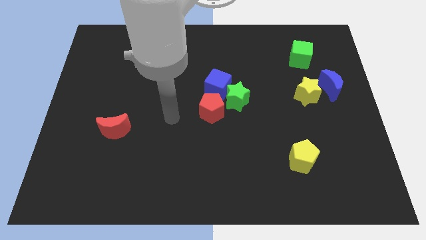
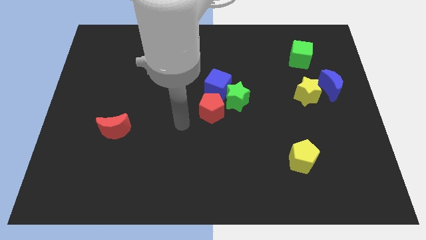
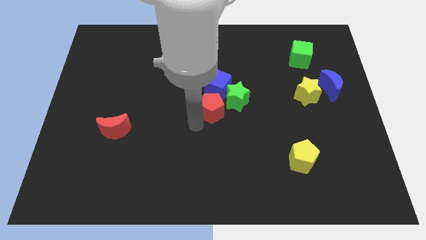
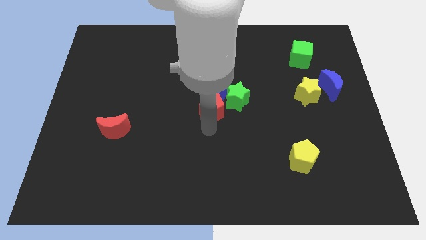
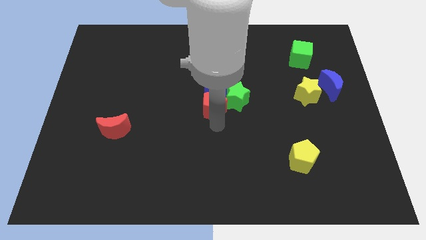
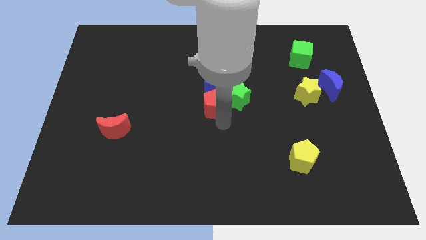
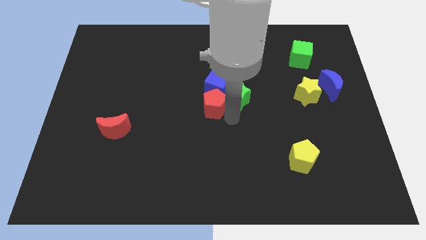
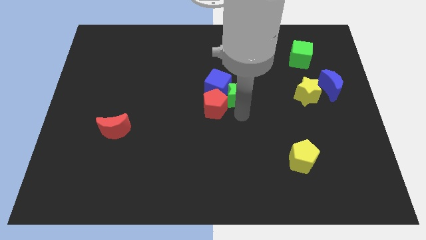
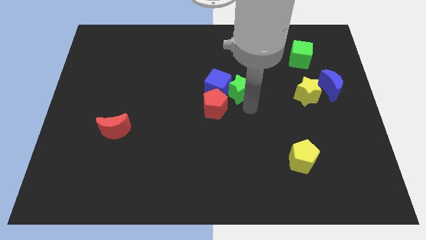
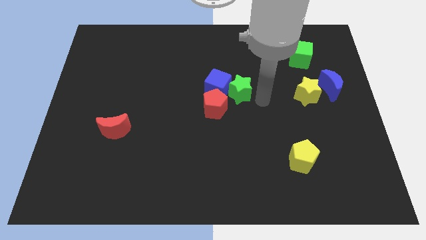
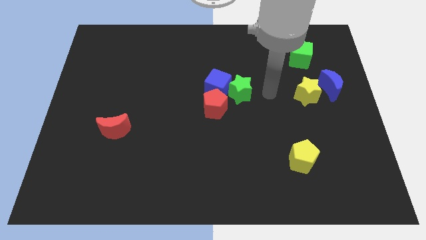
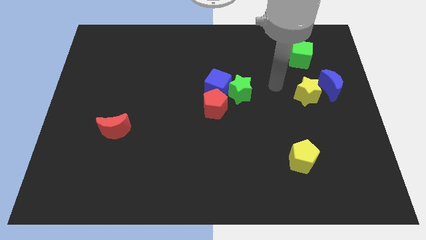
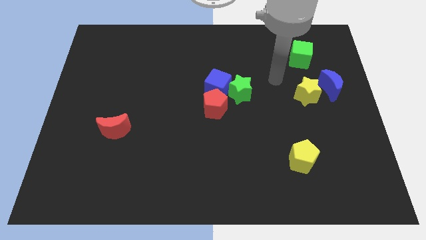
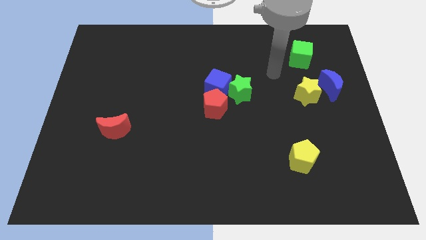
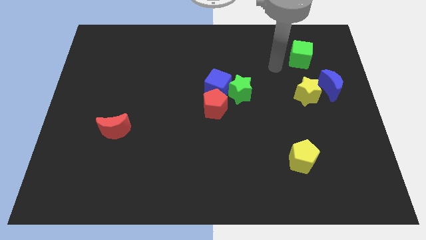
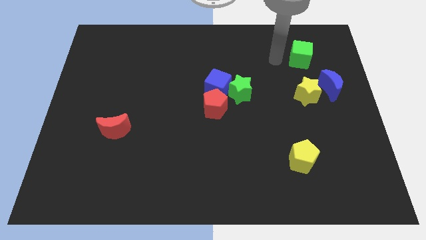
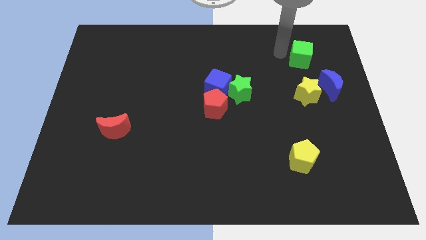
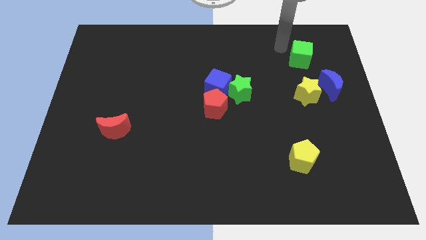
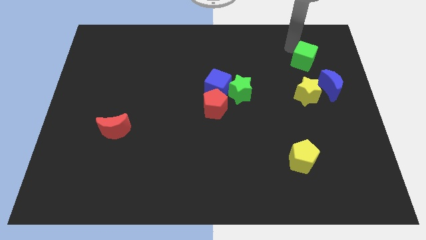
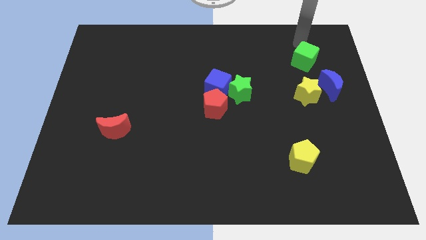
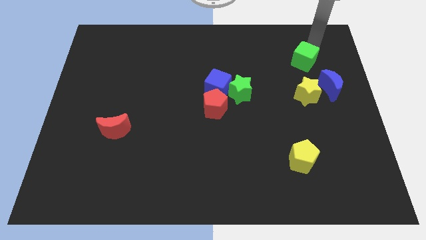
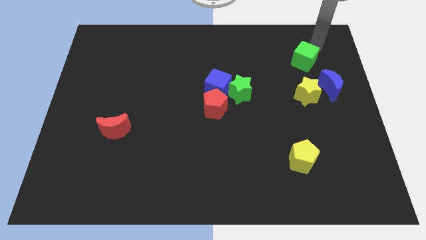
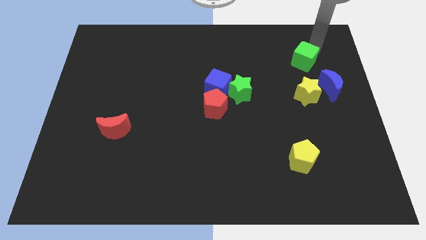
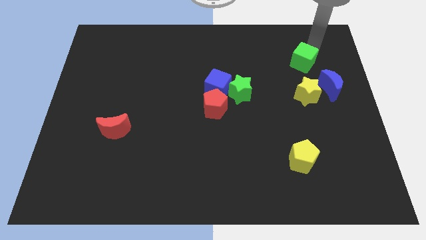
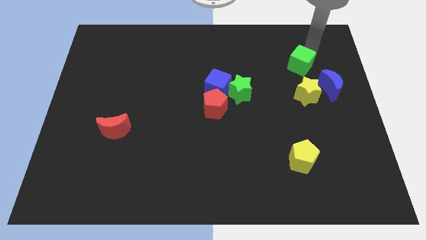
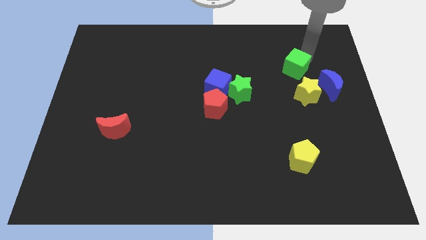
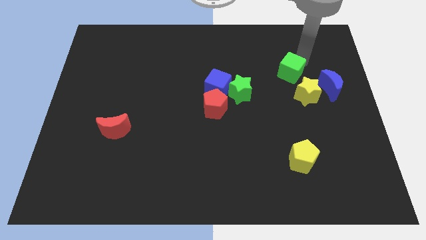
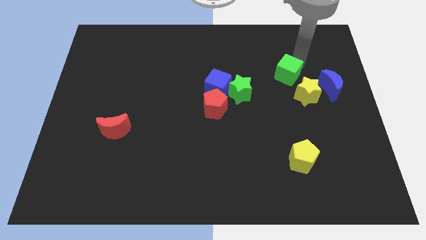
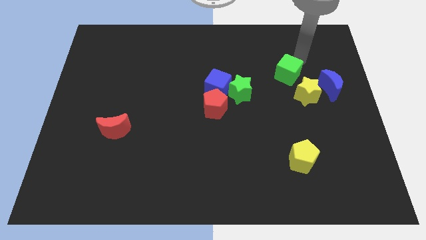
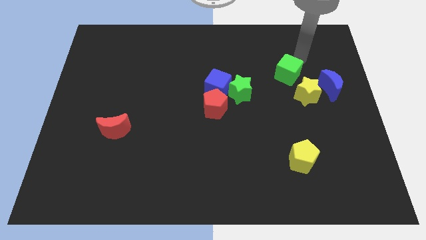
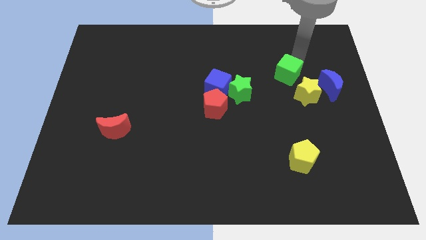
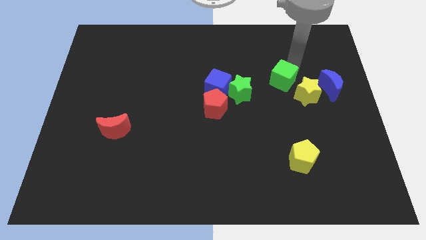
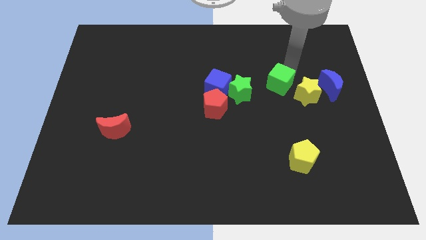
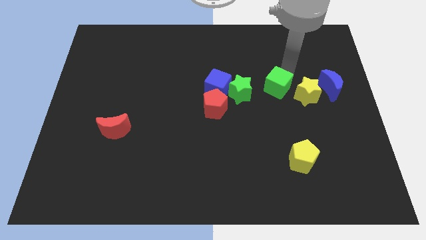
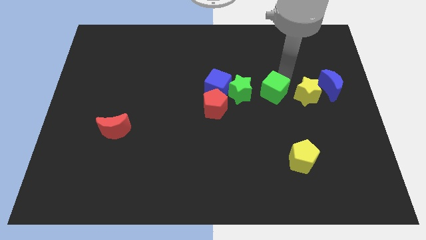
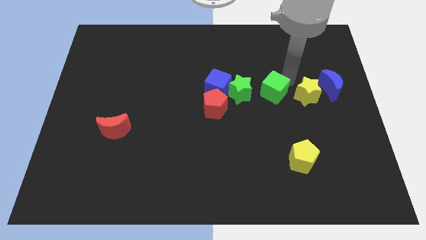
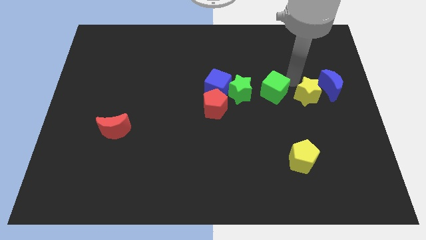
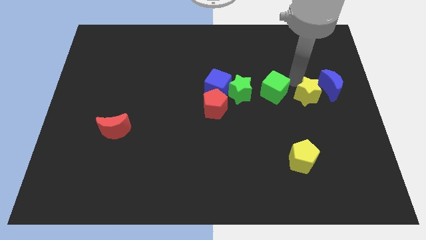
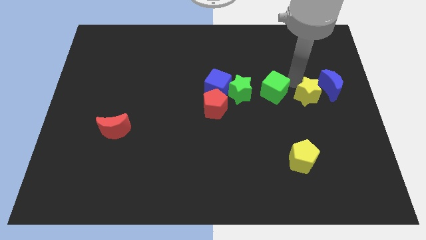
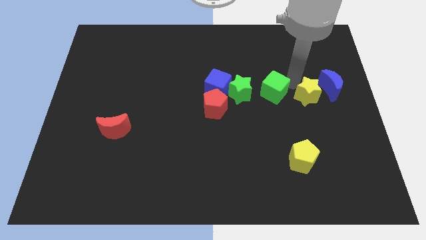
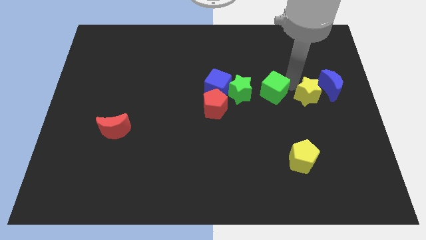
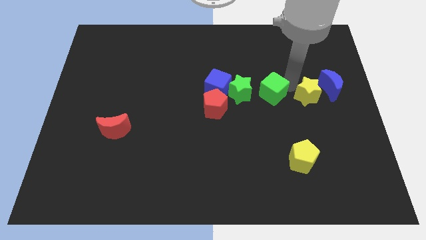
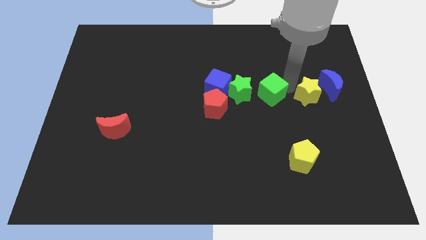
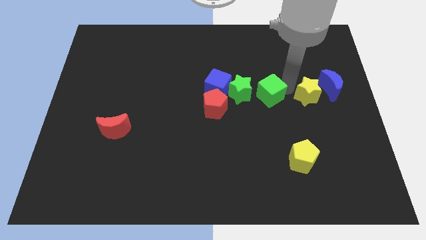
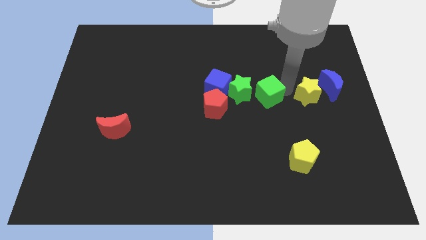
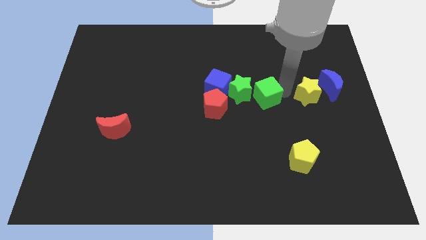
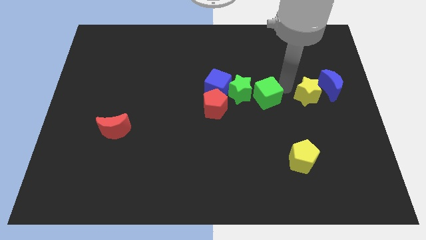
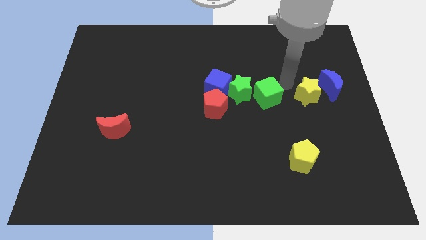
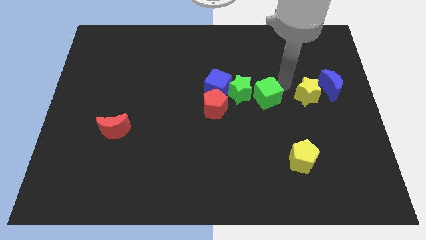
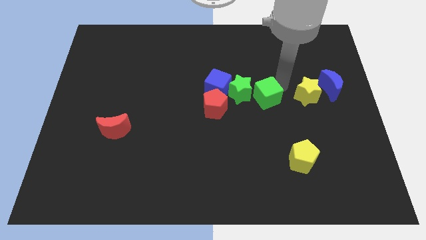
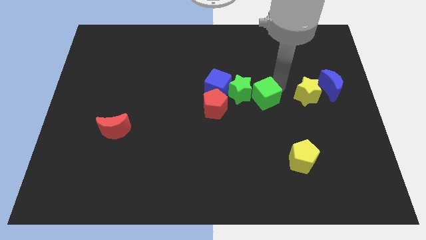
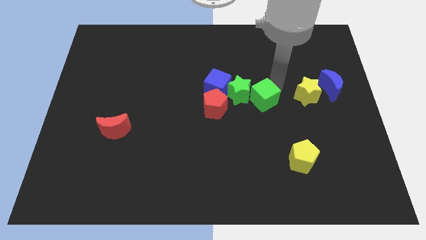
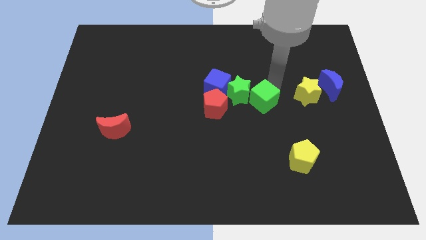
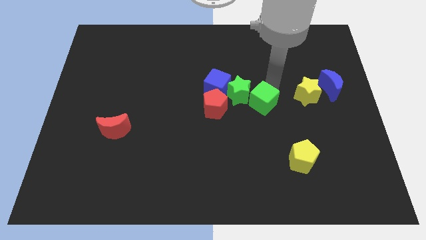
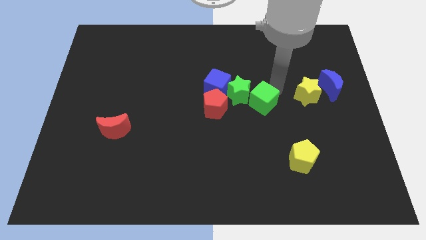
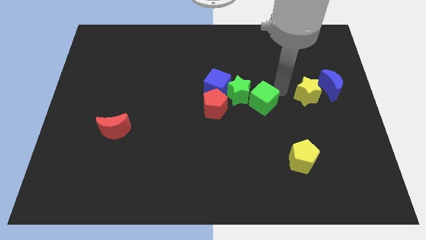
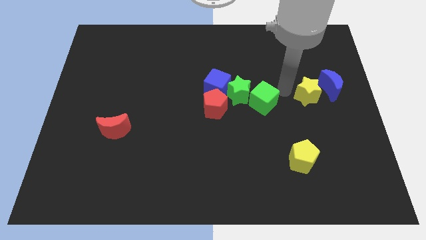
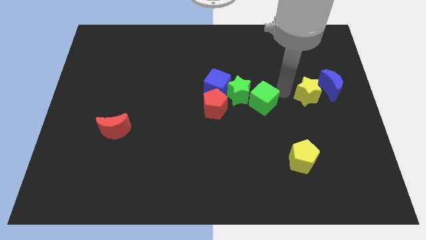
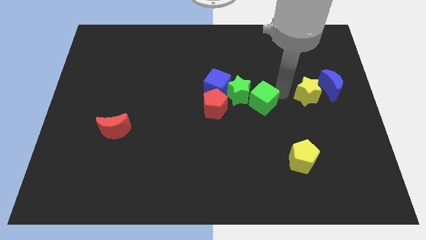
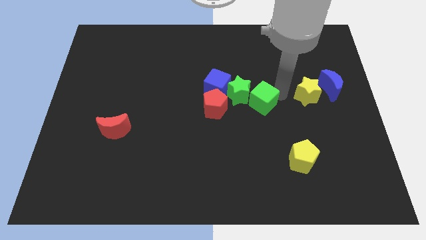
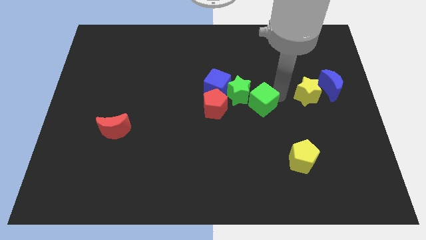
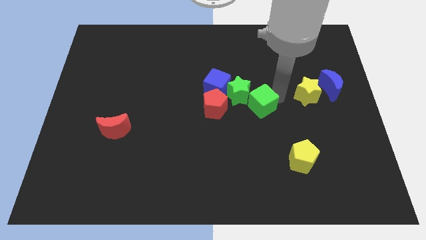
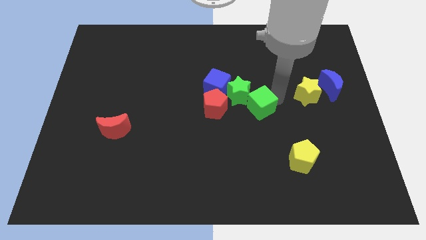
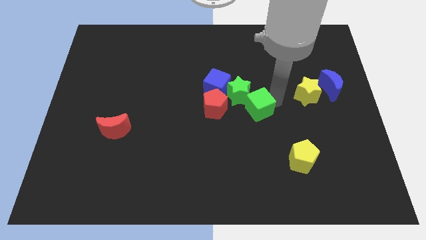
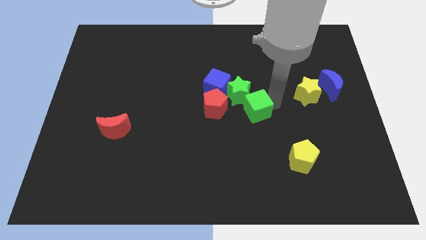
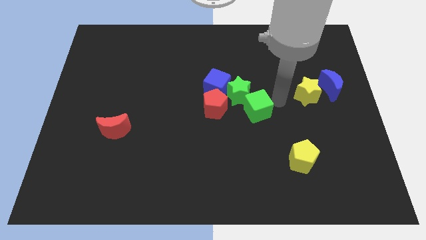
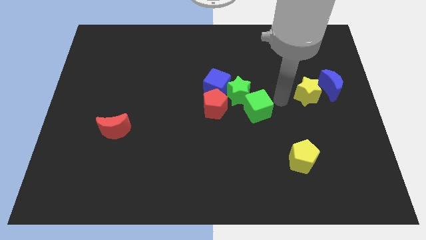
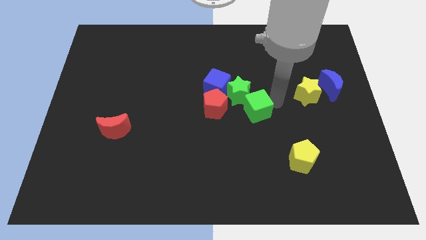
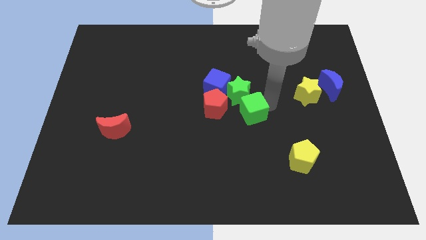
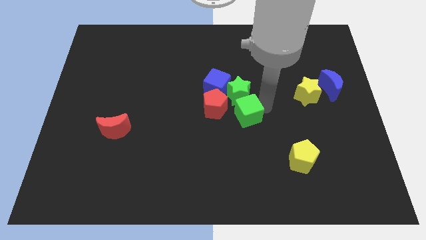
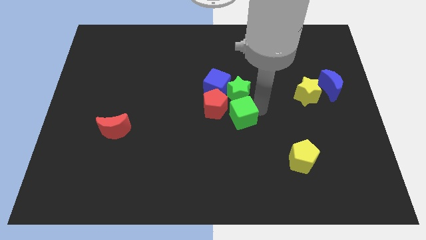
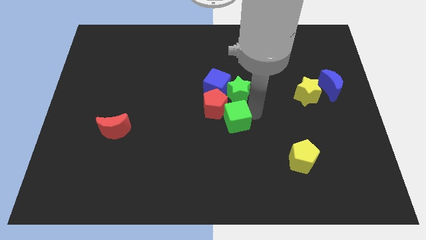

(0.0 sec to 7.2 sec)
put the green cube close to the red pentagon

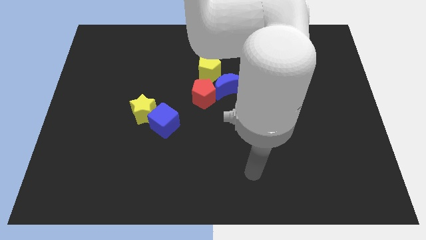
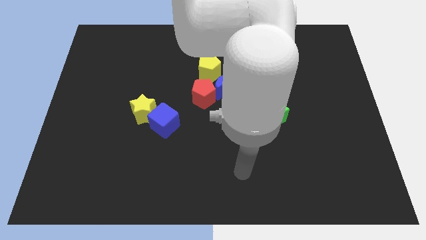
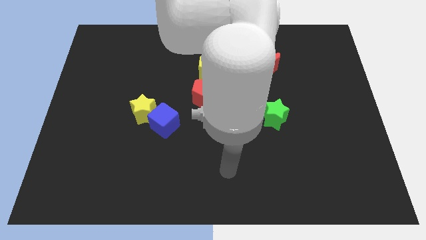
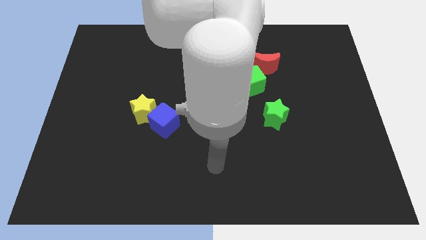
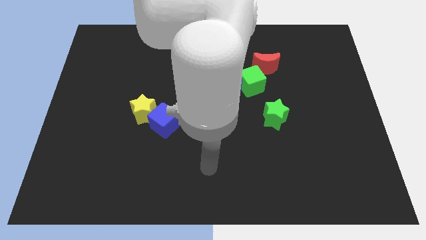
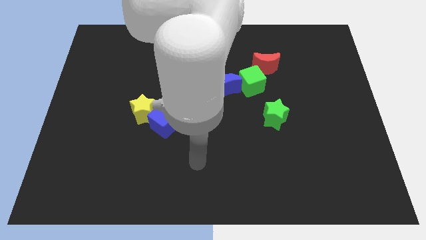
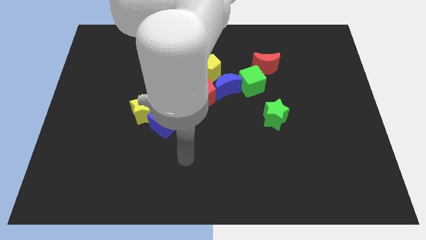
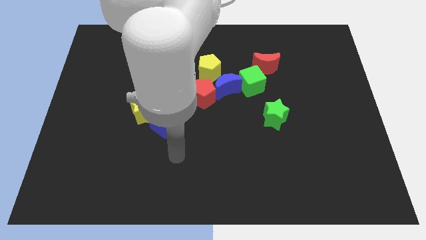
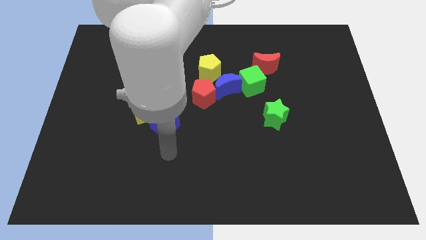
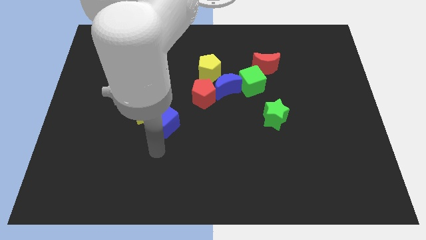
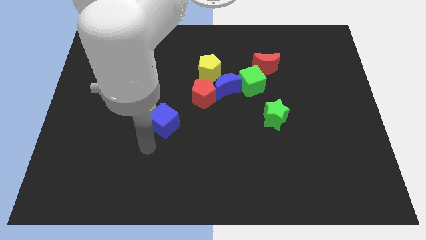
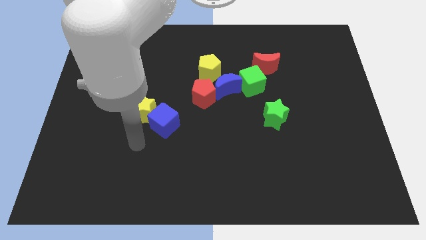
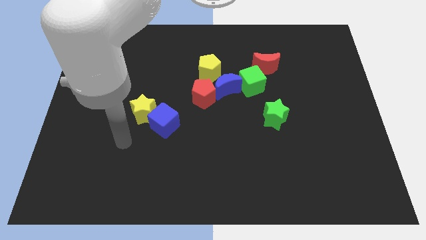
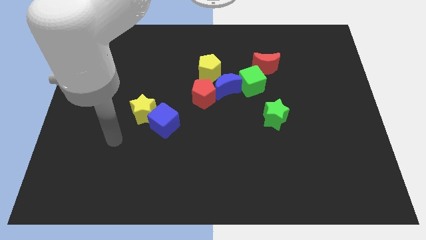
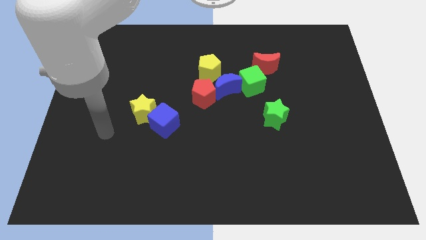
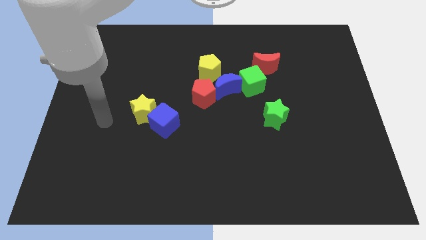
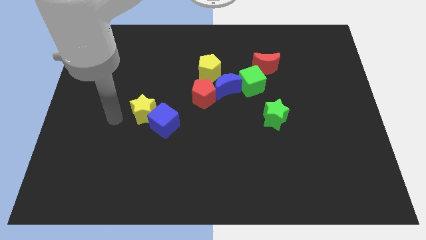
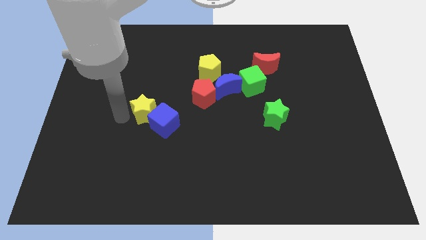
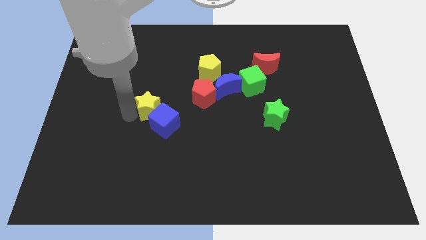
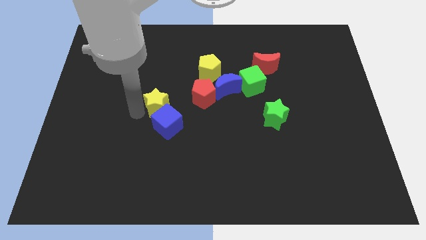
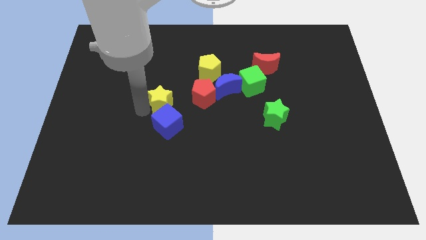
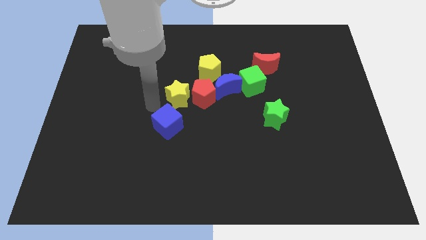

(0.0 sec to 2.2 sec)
push the yellow star to the red pentagon
